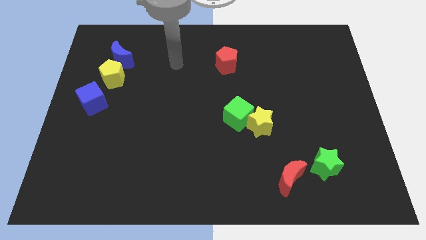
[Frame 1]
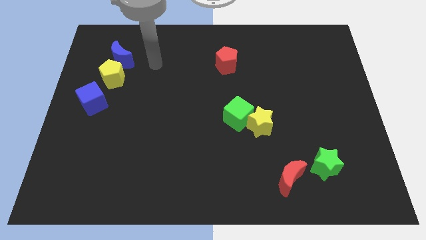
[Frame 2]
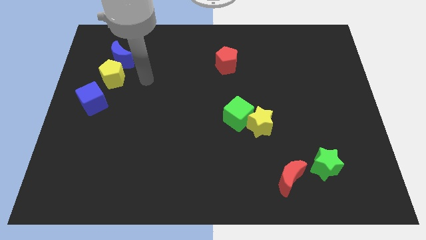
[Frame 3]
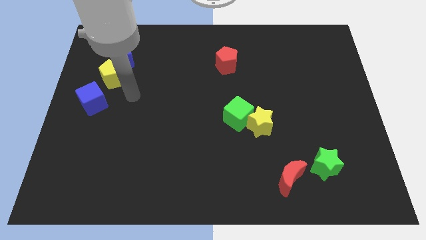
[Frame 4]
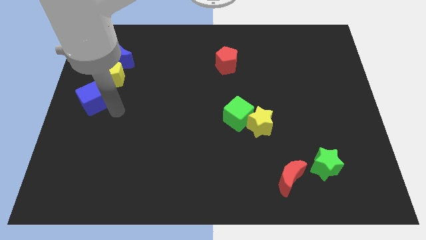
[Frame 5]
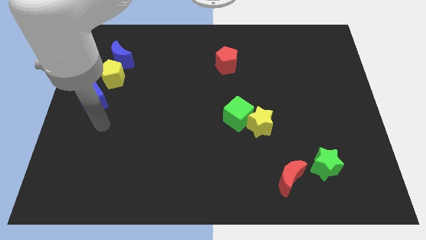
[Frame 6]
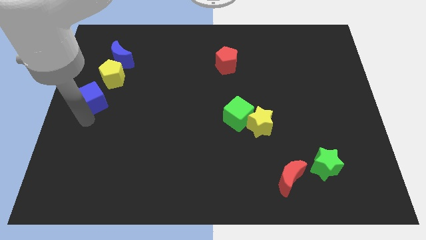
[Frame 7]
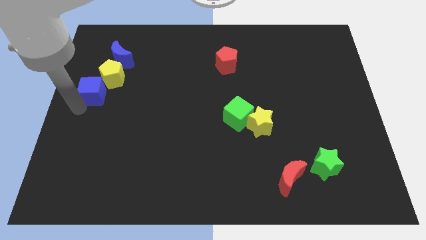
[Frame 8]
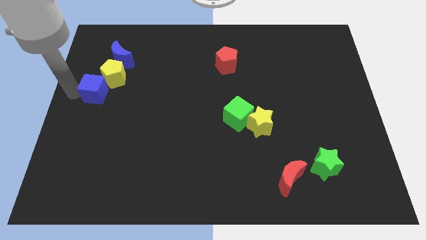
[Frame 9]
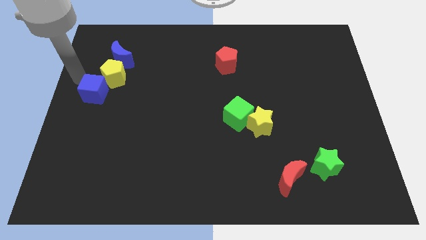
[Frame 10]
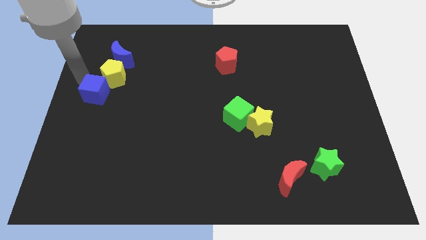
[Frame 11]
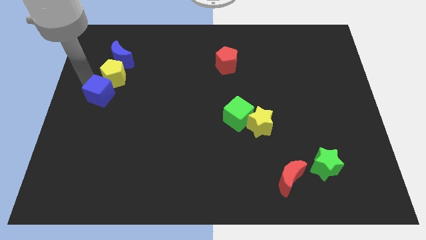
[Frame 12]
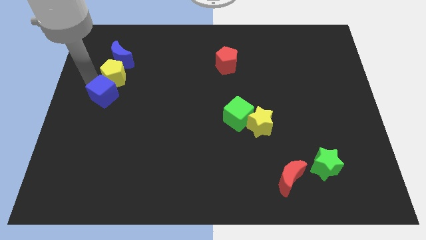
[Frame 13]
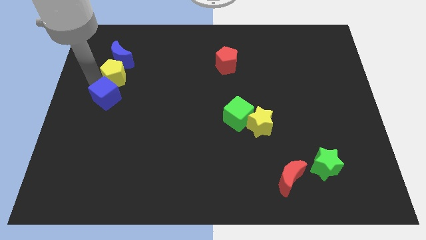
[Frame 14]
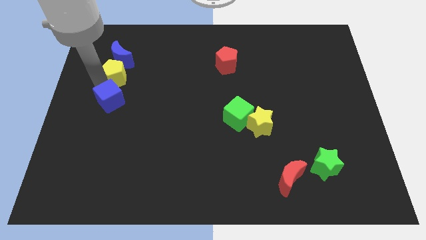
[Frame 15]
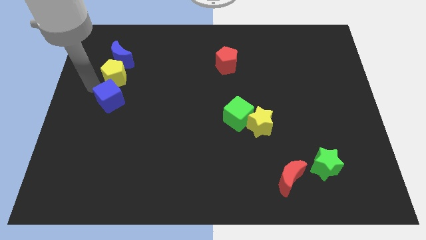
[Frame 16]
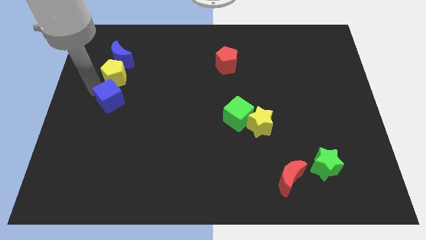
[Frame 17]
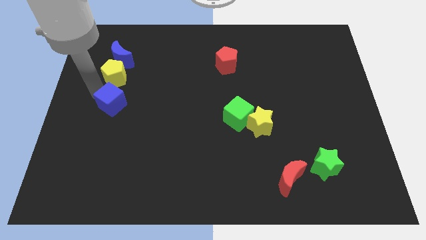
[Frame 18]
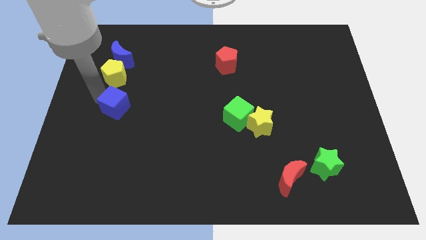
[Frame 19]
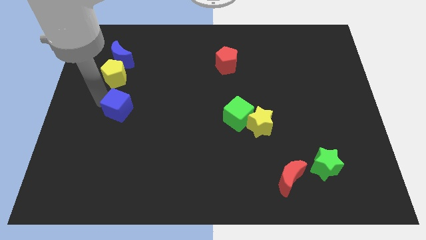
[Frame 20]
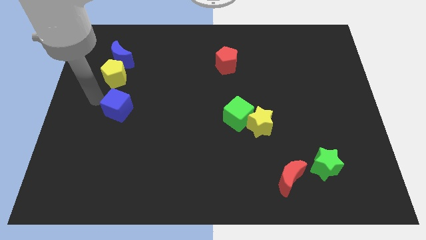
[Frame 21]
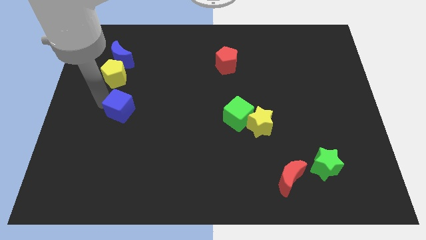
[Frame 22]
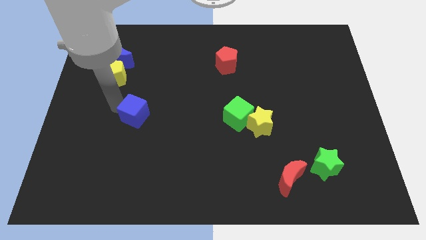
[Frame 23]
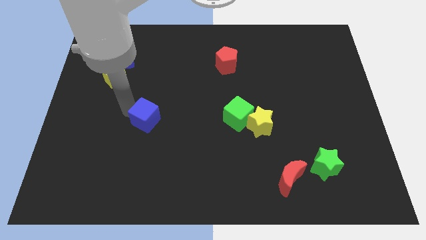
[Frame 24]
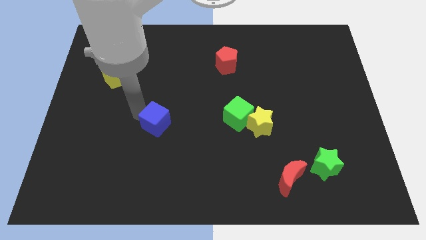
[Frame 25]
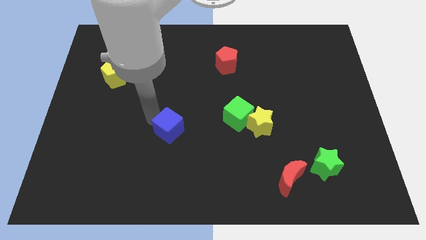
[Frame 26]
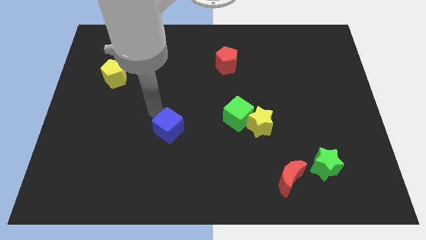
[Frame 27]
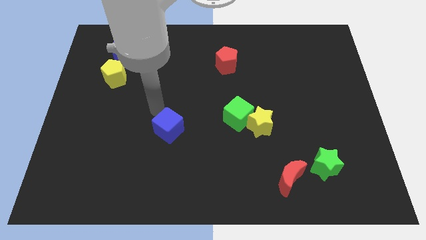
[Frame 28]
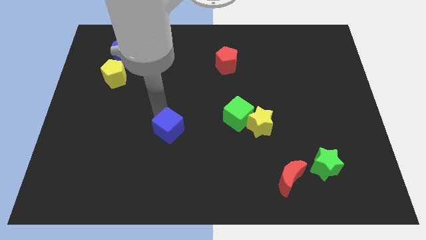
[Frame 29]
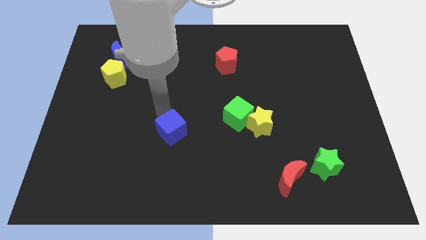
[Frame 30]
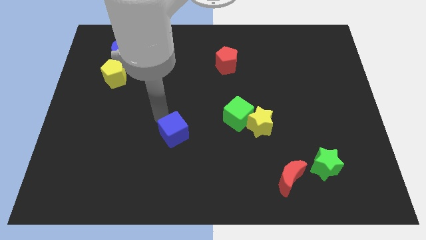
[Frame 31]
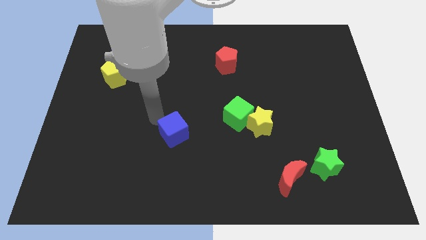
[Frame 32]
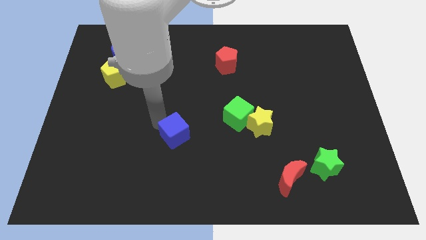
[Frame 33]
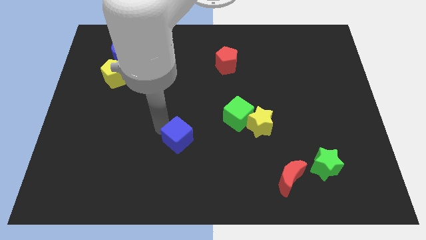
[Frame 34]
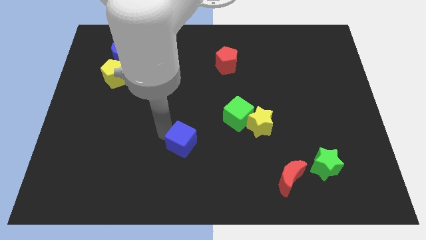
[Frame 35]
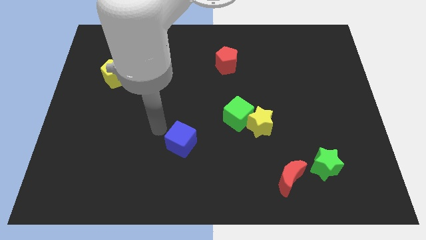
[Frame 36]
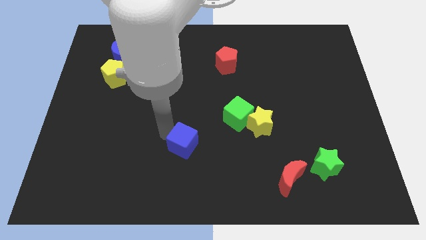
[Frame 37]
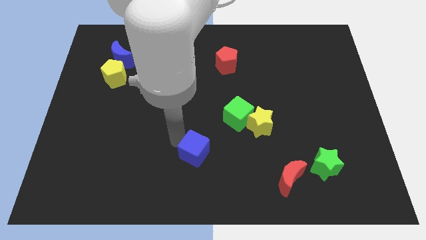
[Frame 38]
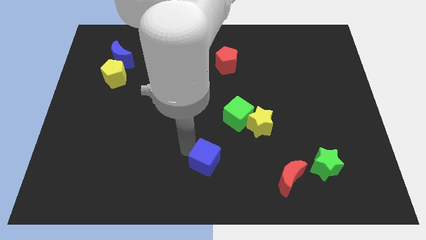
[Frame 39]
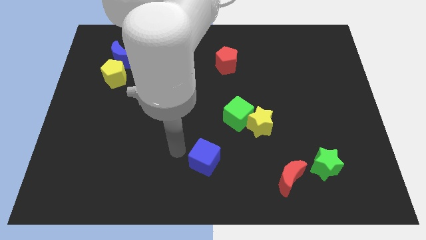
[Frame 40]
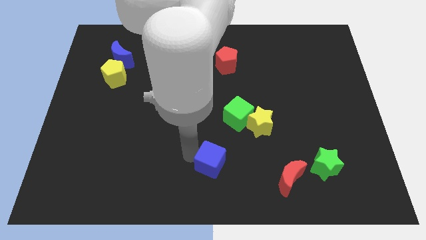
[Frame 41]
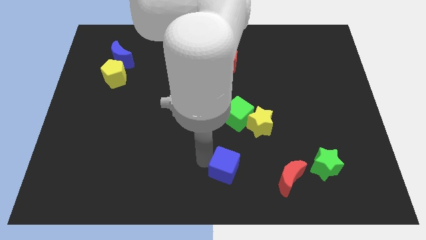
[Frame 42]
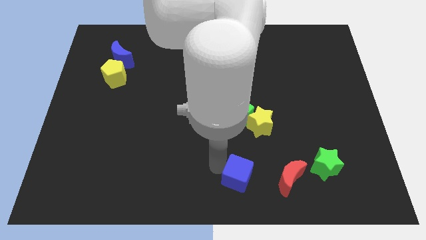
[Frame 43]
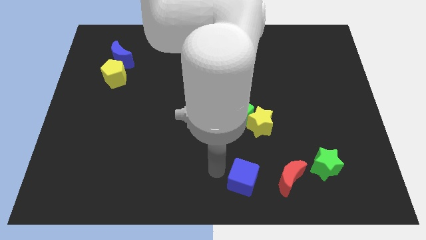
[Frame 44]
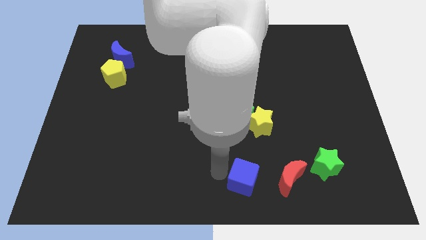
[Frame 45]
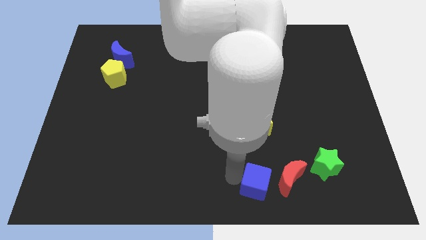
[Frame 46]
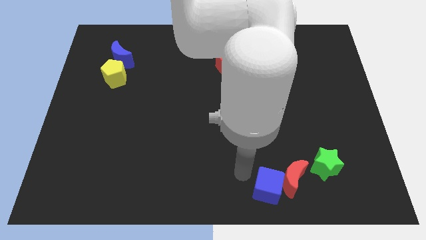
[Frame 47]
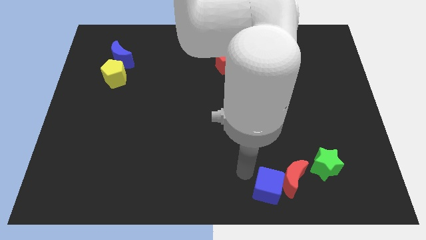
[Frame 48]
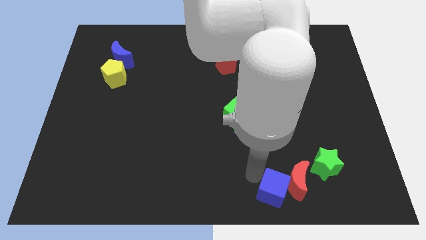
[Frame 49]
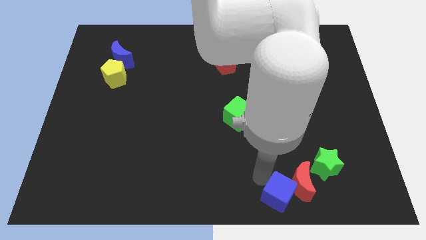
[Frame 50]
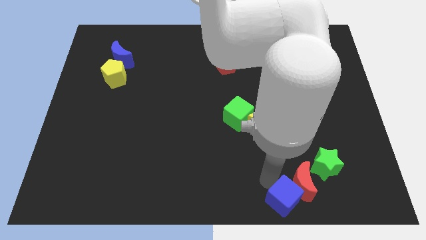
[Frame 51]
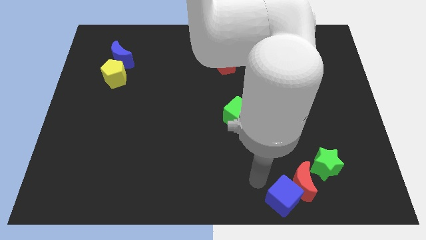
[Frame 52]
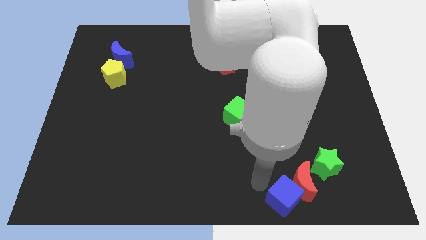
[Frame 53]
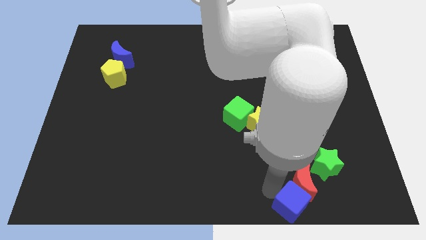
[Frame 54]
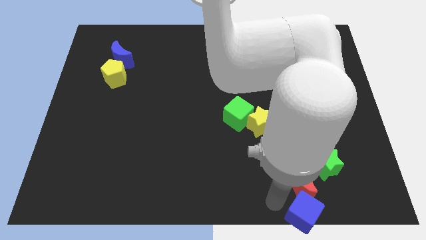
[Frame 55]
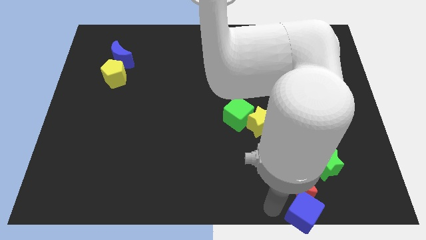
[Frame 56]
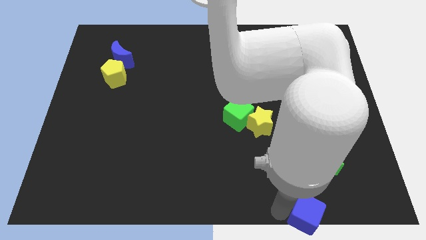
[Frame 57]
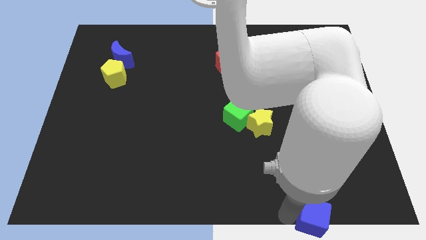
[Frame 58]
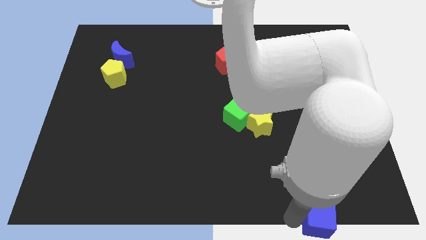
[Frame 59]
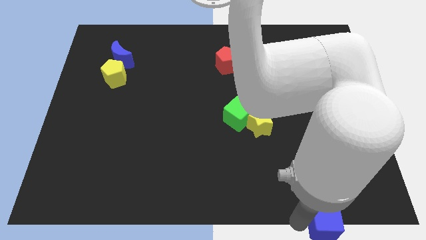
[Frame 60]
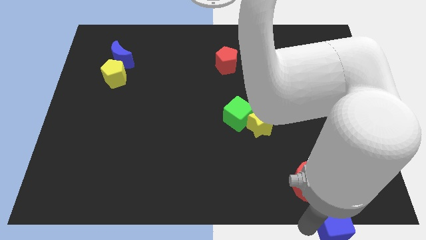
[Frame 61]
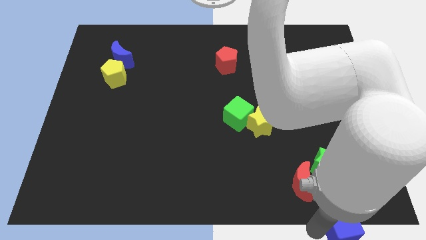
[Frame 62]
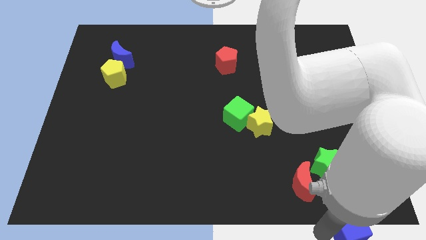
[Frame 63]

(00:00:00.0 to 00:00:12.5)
slide the blue cube to the lower right corner
